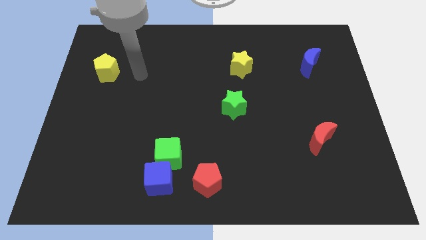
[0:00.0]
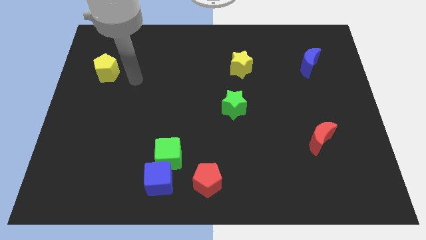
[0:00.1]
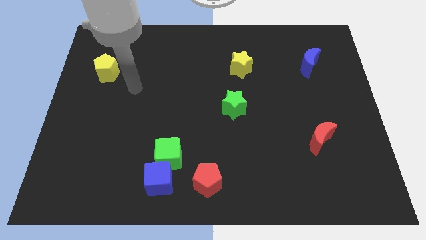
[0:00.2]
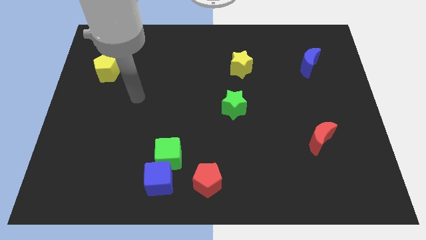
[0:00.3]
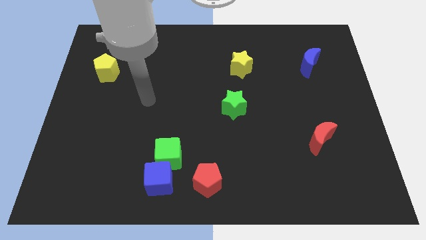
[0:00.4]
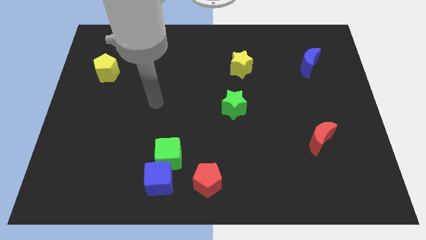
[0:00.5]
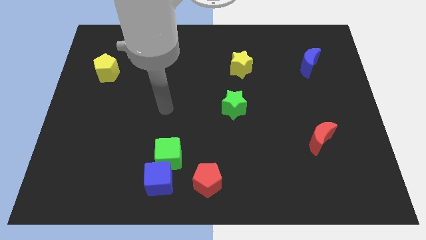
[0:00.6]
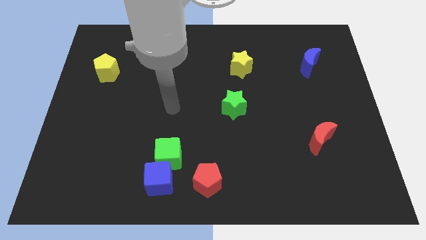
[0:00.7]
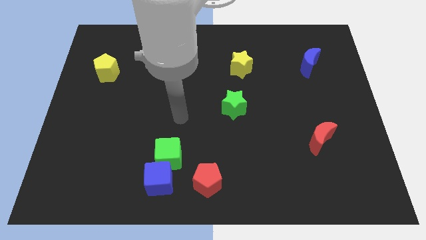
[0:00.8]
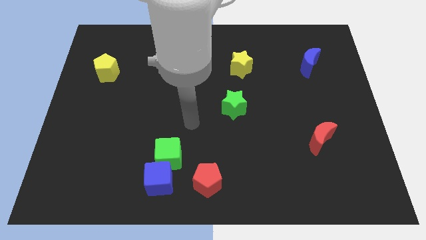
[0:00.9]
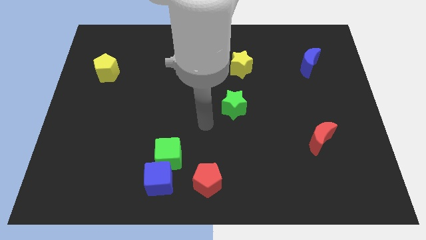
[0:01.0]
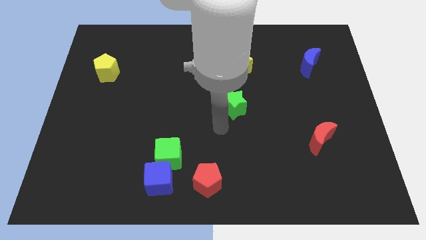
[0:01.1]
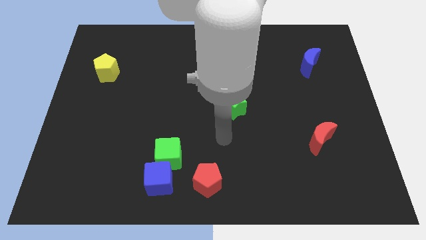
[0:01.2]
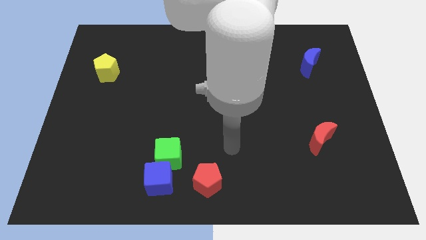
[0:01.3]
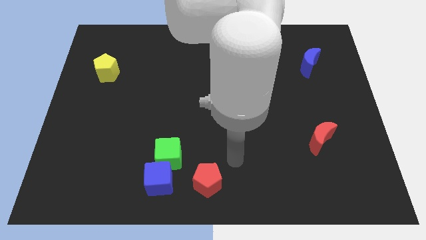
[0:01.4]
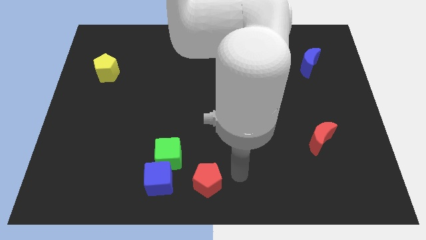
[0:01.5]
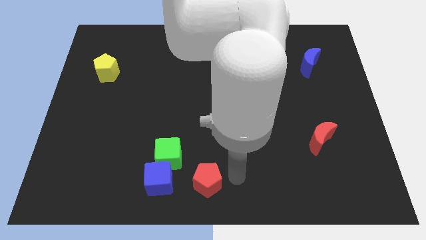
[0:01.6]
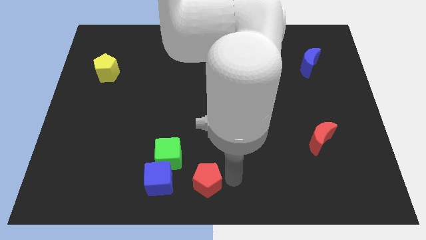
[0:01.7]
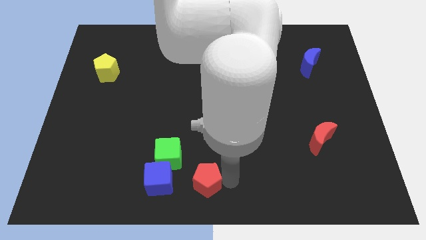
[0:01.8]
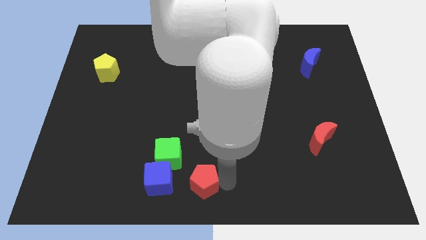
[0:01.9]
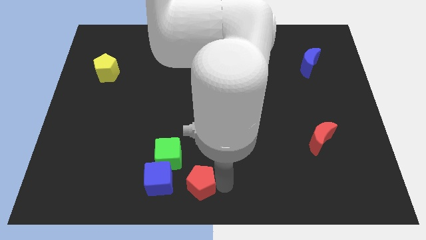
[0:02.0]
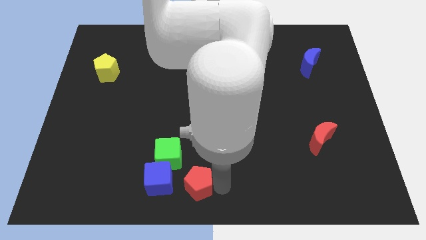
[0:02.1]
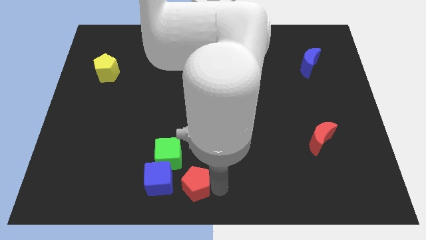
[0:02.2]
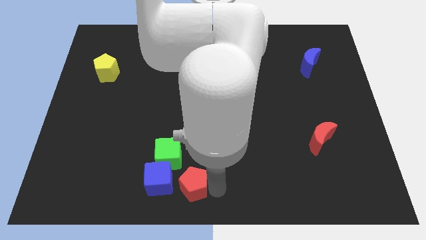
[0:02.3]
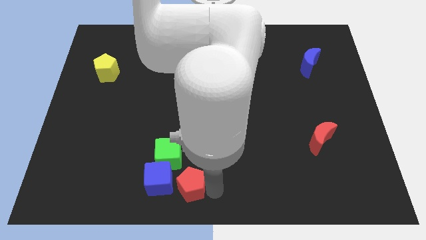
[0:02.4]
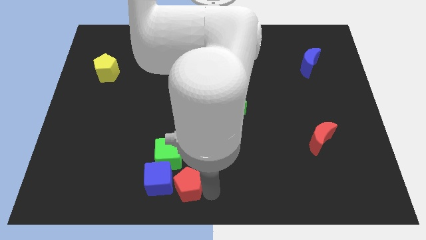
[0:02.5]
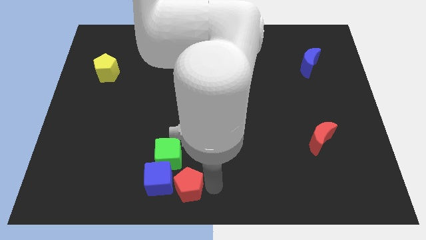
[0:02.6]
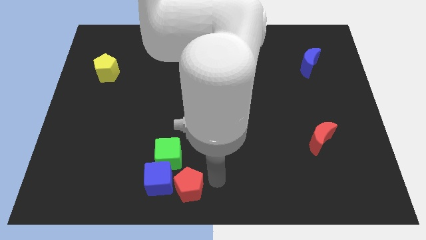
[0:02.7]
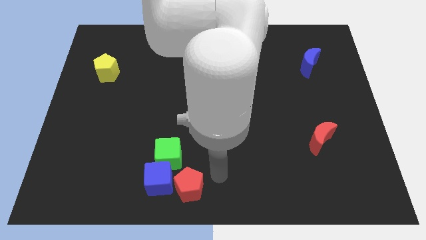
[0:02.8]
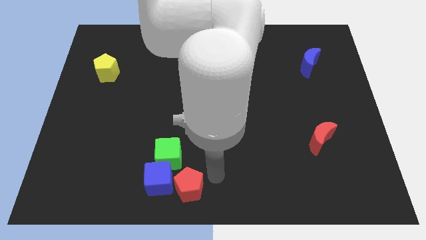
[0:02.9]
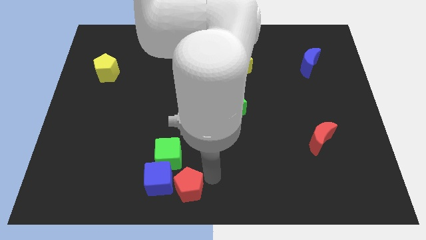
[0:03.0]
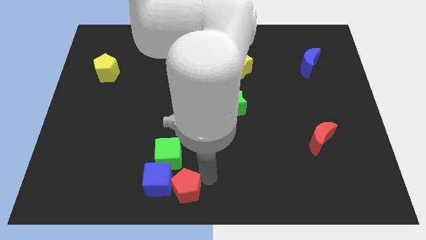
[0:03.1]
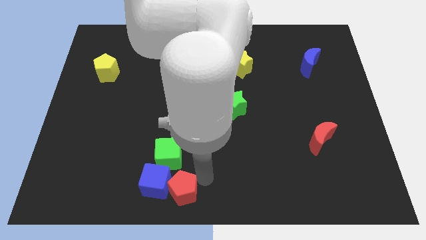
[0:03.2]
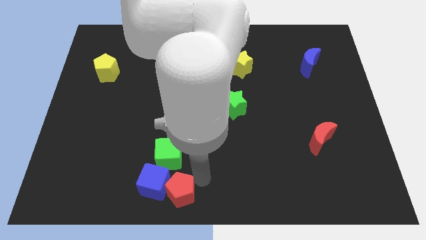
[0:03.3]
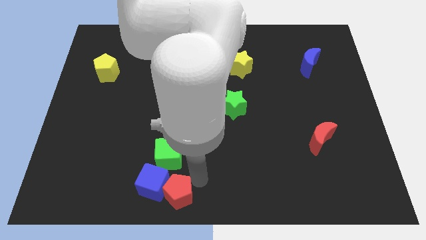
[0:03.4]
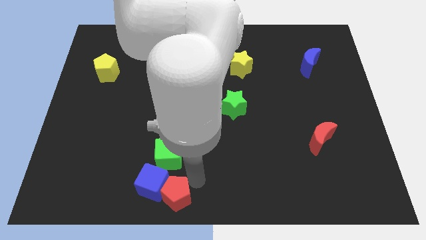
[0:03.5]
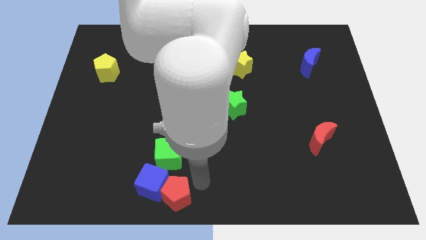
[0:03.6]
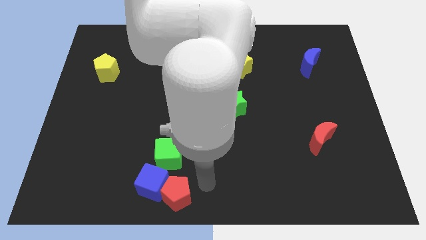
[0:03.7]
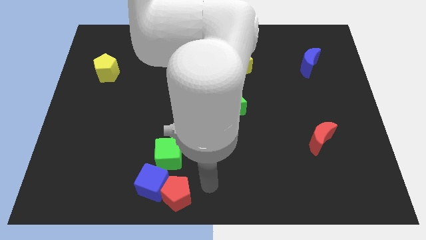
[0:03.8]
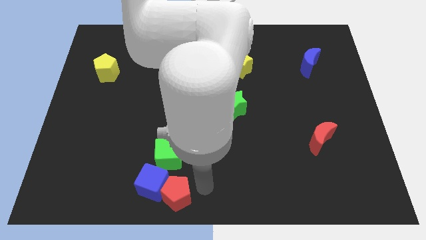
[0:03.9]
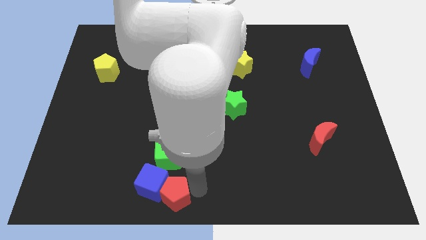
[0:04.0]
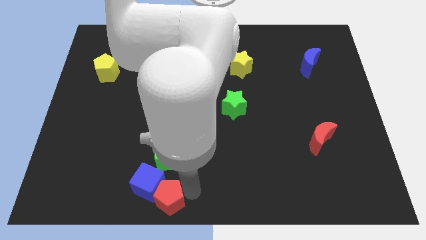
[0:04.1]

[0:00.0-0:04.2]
slightly move the red pentagon left

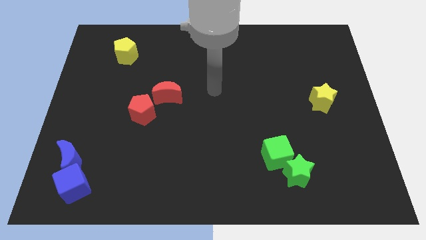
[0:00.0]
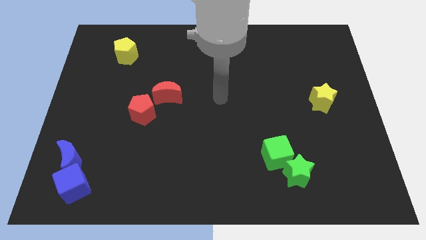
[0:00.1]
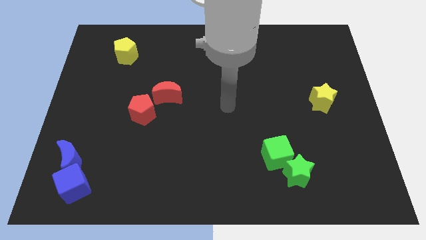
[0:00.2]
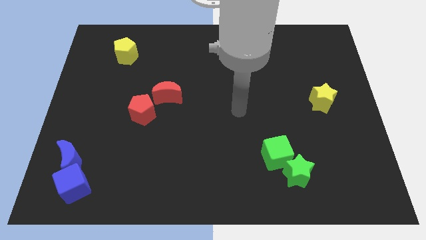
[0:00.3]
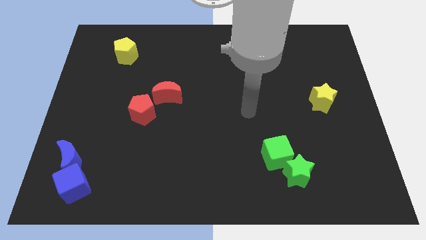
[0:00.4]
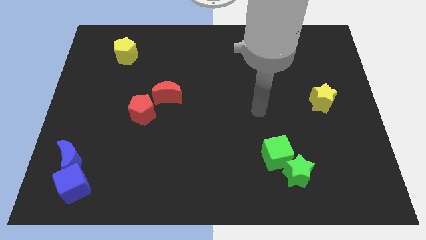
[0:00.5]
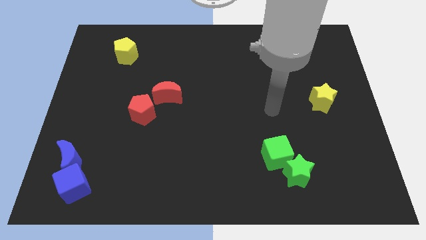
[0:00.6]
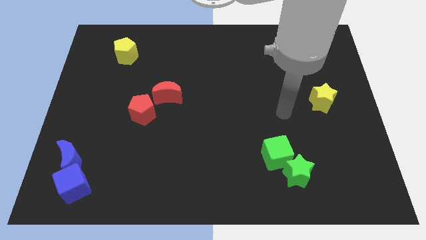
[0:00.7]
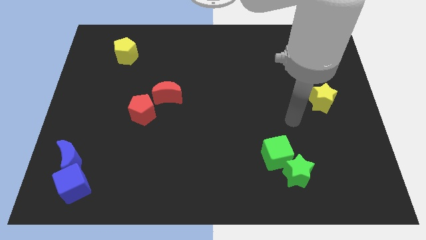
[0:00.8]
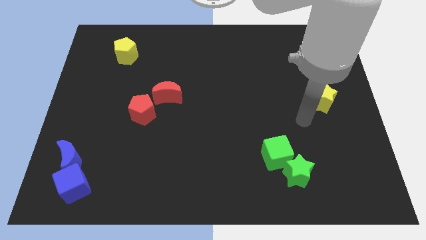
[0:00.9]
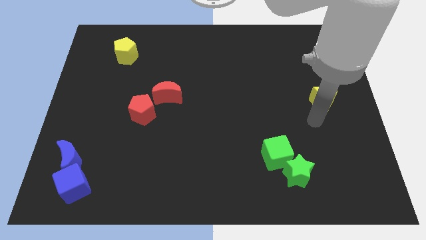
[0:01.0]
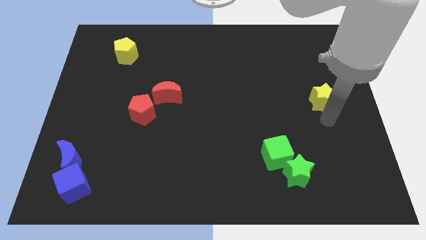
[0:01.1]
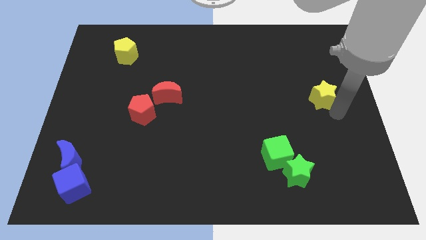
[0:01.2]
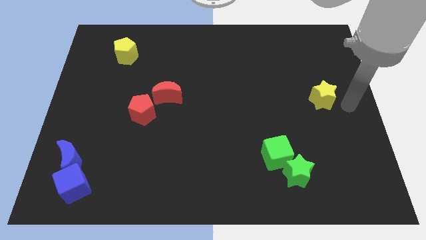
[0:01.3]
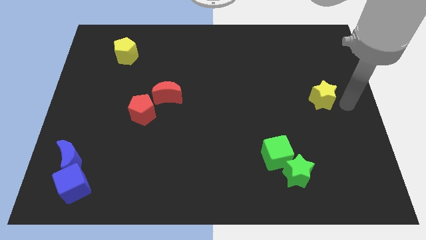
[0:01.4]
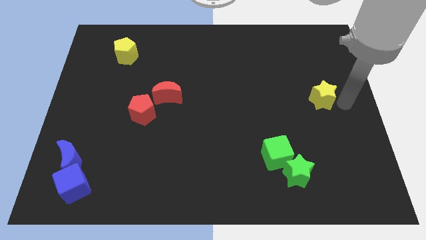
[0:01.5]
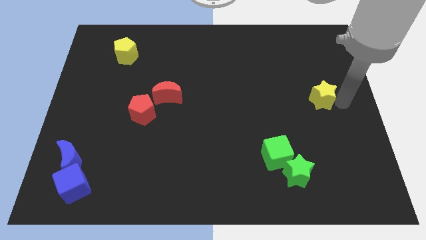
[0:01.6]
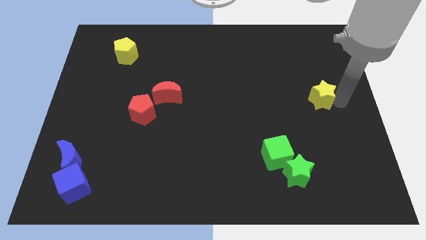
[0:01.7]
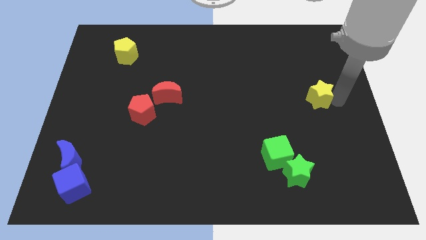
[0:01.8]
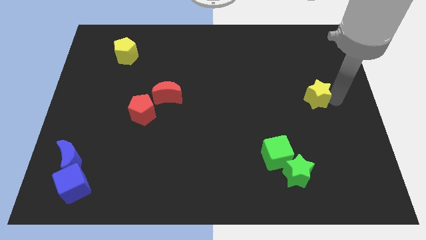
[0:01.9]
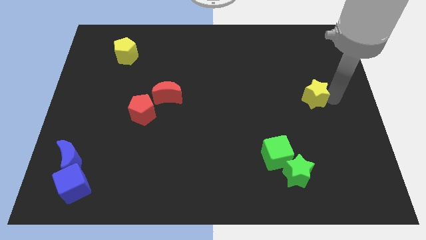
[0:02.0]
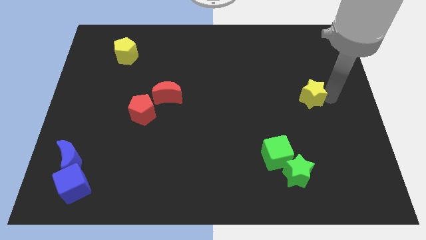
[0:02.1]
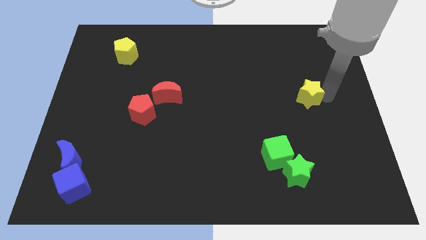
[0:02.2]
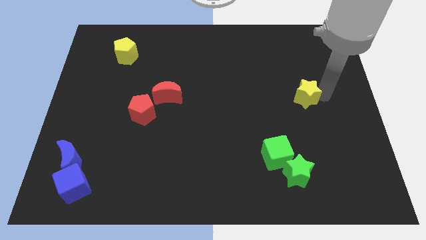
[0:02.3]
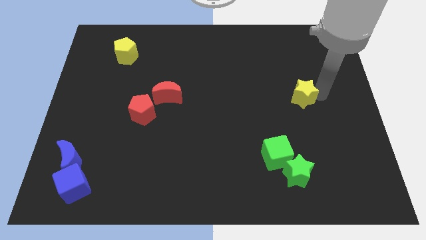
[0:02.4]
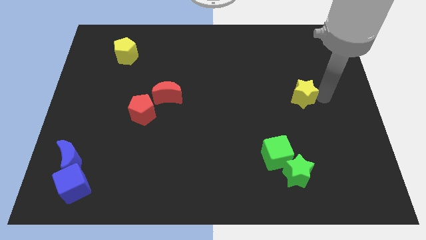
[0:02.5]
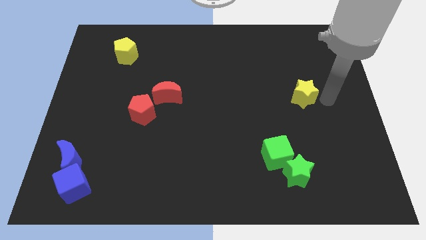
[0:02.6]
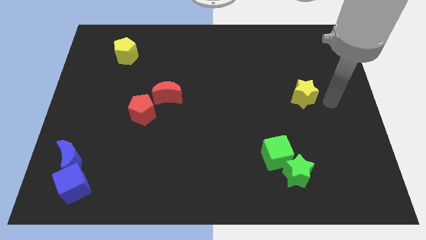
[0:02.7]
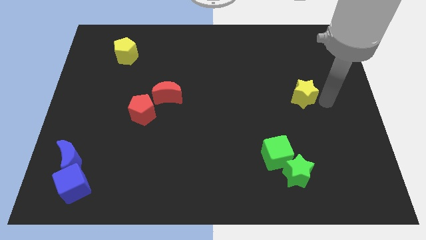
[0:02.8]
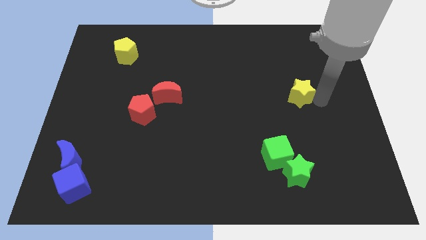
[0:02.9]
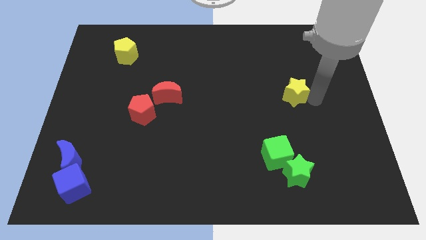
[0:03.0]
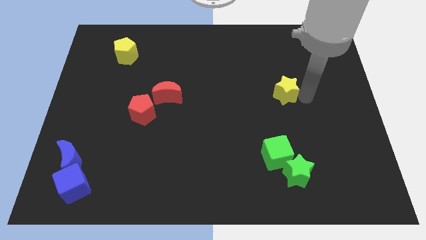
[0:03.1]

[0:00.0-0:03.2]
slightly move the yellow star left

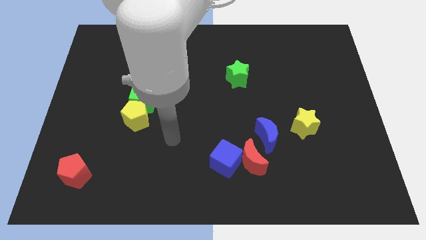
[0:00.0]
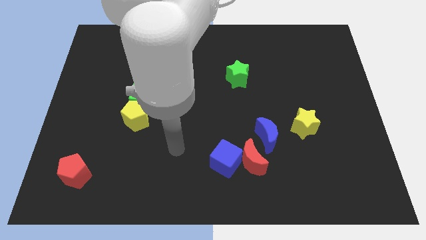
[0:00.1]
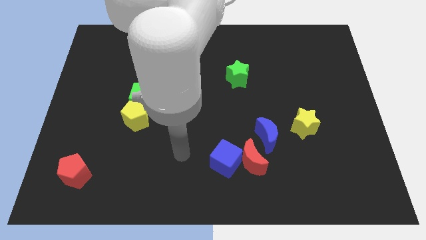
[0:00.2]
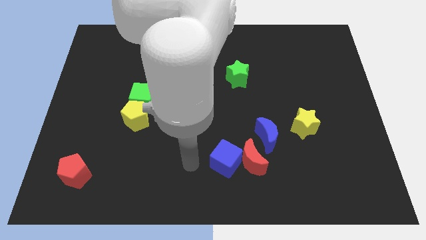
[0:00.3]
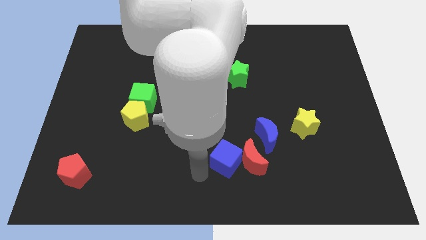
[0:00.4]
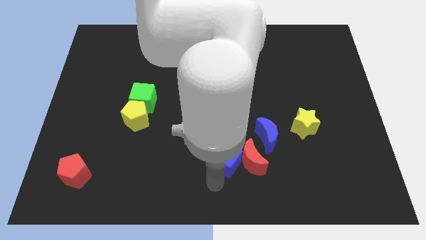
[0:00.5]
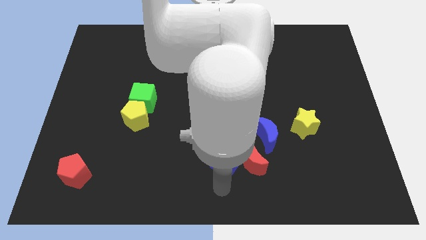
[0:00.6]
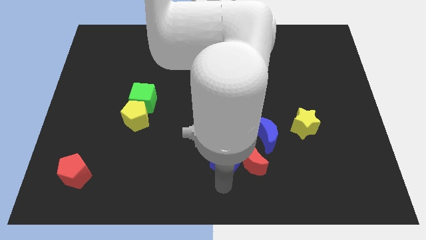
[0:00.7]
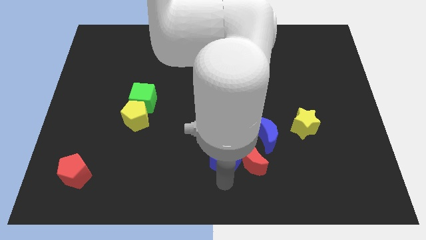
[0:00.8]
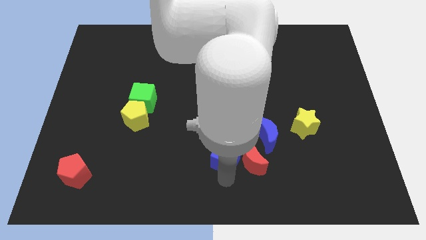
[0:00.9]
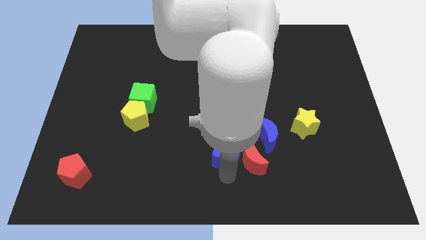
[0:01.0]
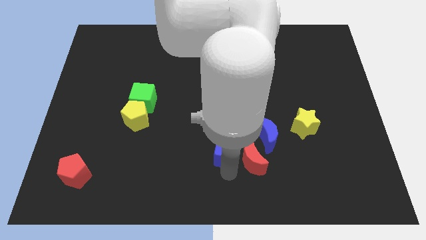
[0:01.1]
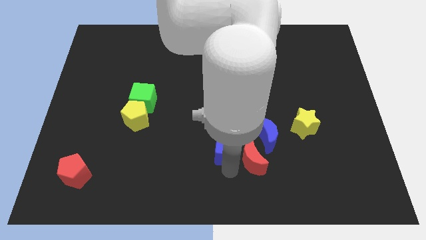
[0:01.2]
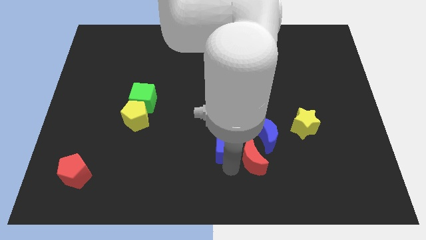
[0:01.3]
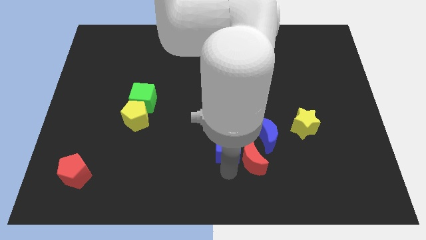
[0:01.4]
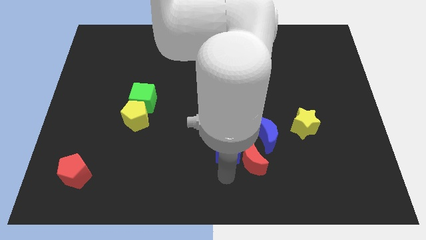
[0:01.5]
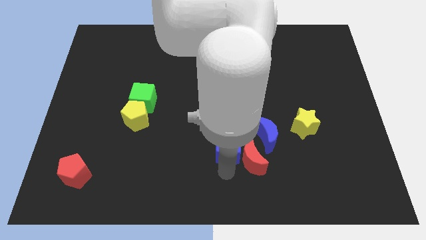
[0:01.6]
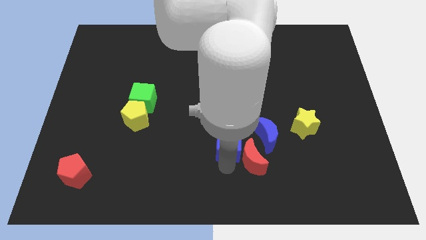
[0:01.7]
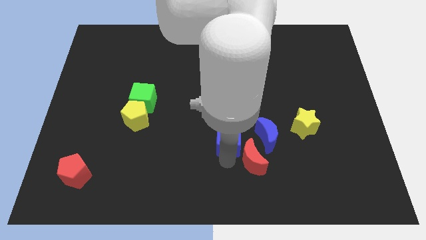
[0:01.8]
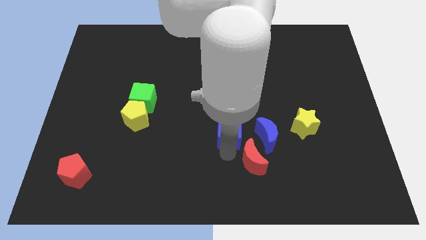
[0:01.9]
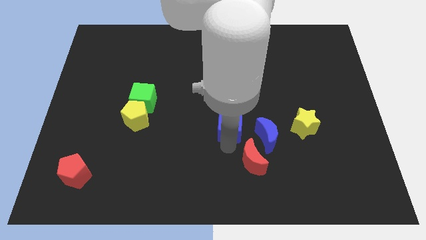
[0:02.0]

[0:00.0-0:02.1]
slide the blue cube up a bit
